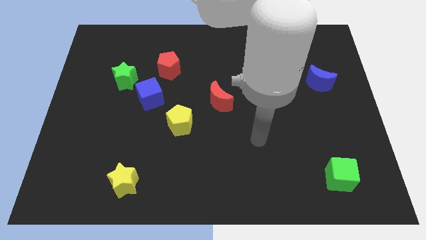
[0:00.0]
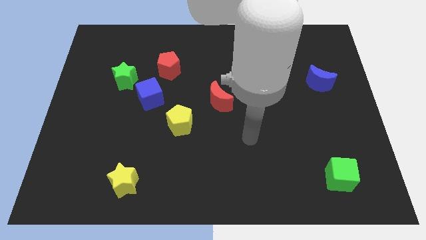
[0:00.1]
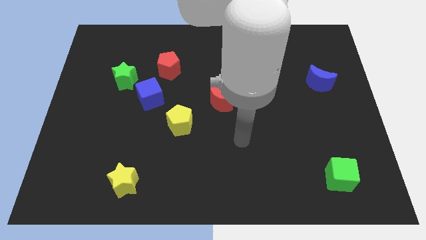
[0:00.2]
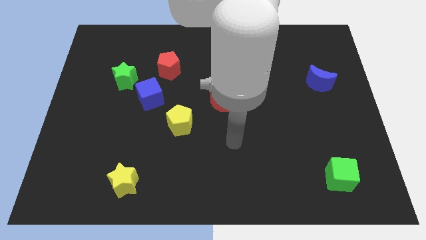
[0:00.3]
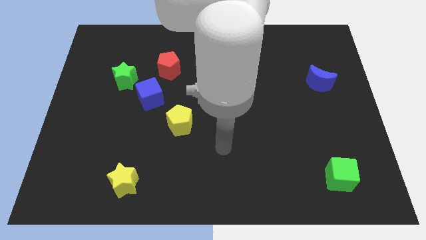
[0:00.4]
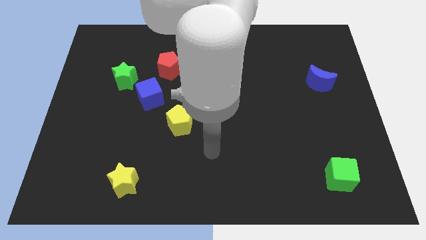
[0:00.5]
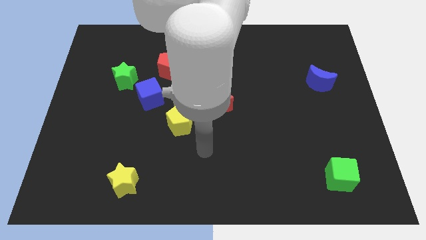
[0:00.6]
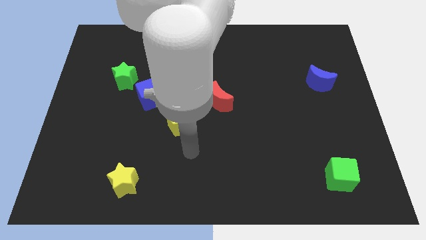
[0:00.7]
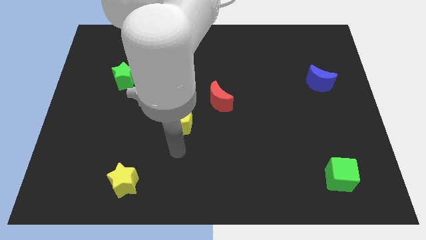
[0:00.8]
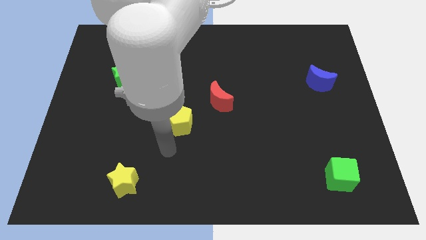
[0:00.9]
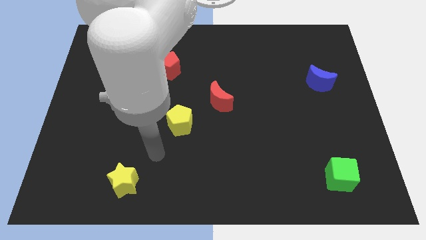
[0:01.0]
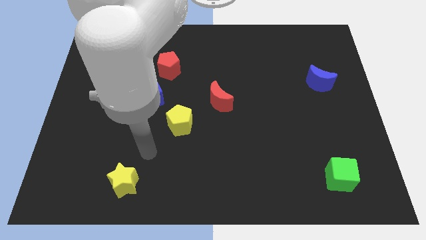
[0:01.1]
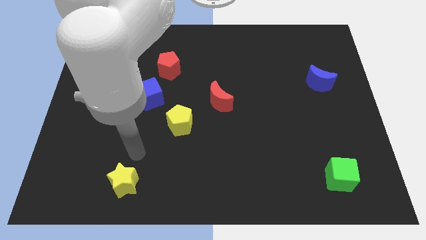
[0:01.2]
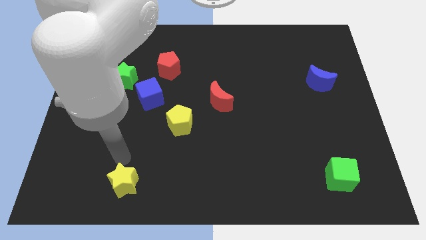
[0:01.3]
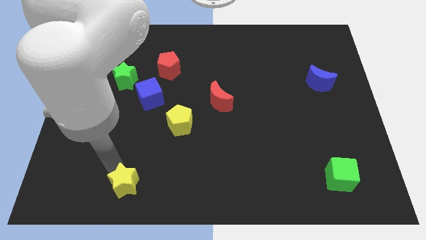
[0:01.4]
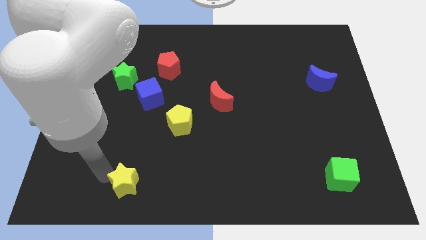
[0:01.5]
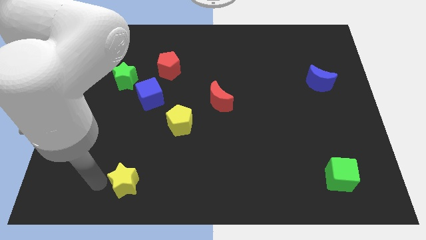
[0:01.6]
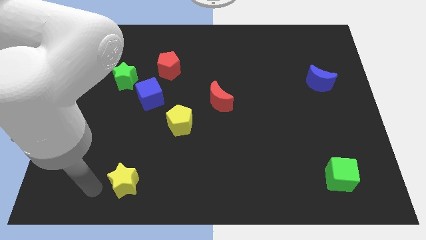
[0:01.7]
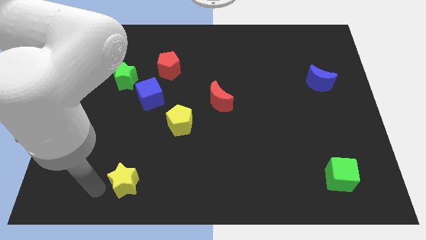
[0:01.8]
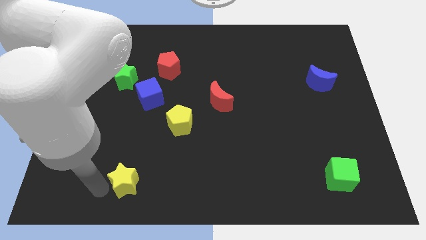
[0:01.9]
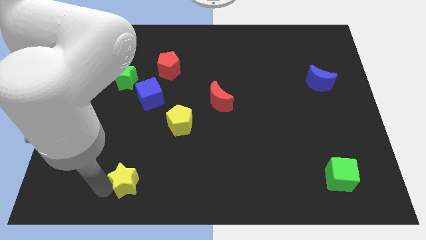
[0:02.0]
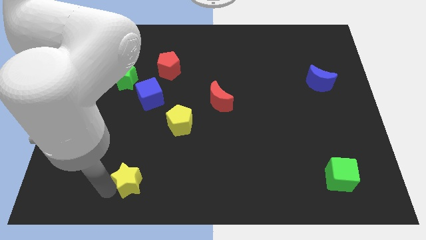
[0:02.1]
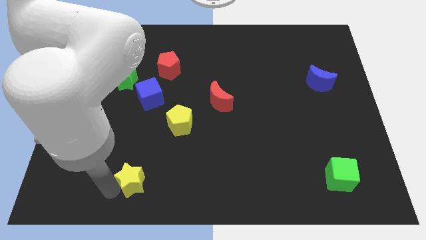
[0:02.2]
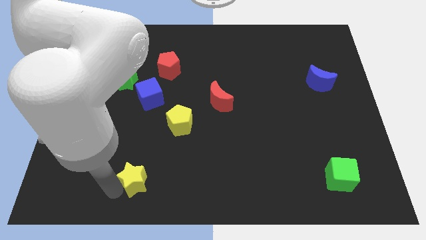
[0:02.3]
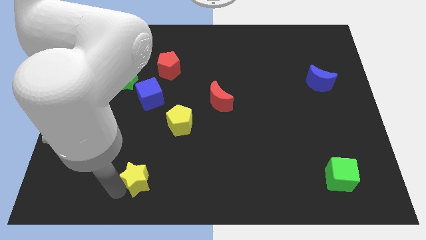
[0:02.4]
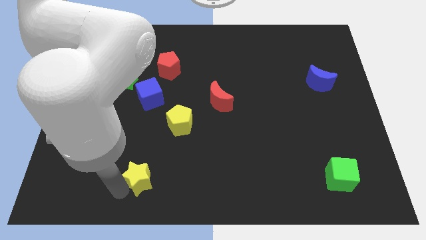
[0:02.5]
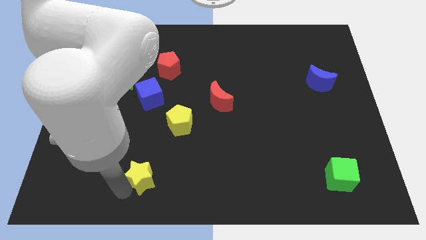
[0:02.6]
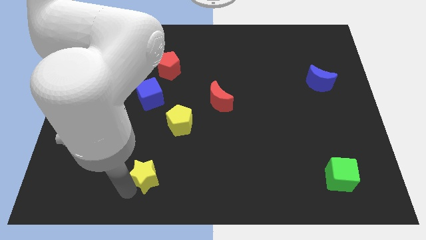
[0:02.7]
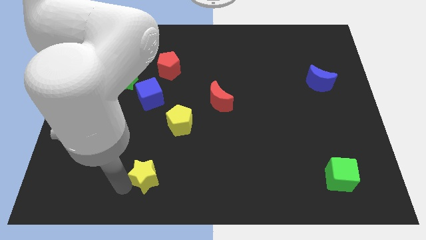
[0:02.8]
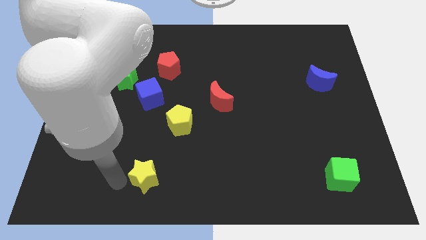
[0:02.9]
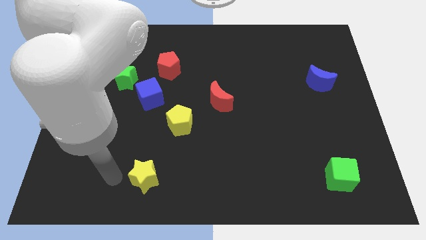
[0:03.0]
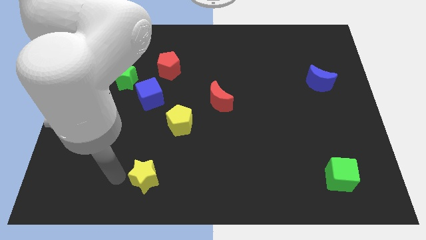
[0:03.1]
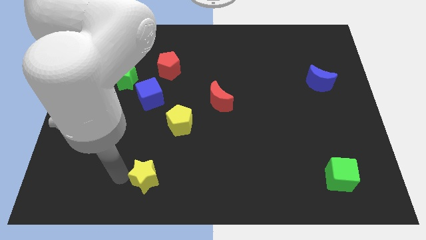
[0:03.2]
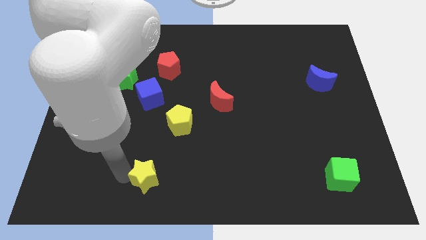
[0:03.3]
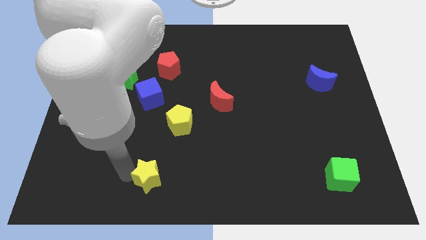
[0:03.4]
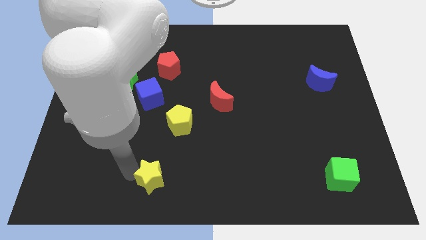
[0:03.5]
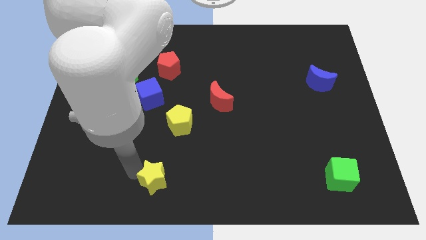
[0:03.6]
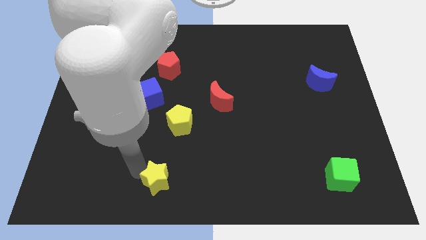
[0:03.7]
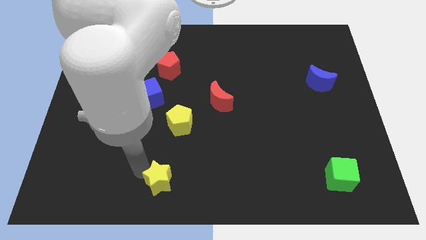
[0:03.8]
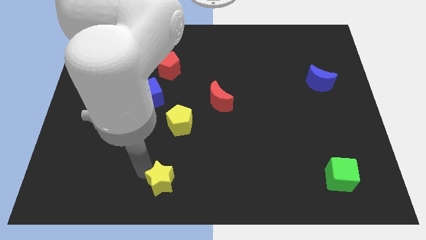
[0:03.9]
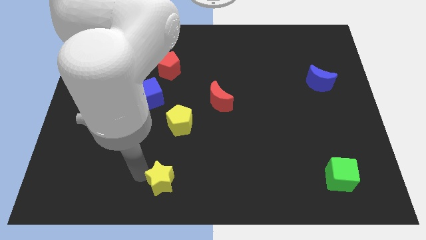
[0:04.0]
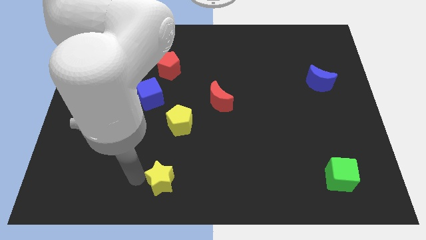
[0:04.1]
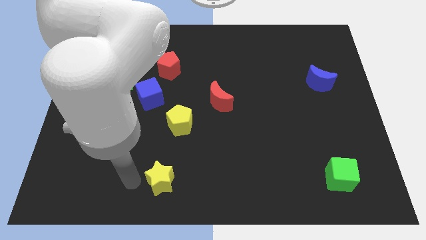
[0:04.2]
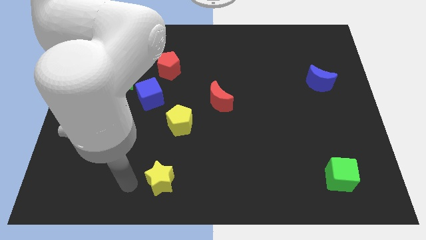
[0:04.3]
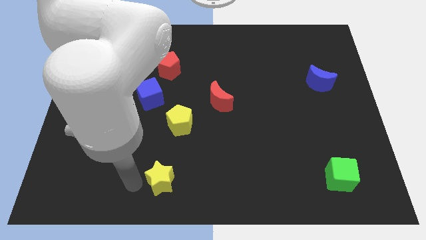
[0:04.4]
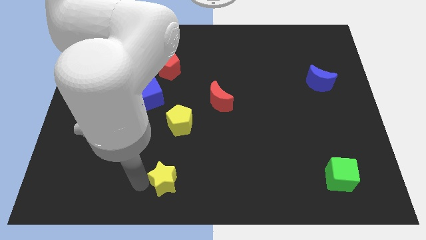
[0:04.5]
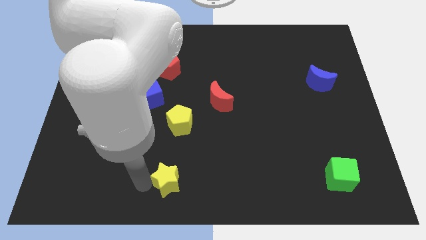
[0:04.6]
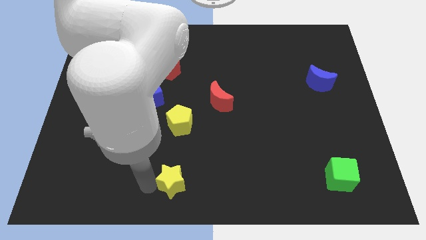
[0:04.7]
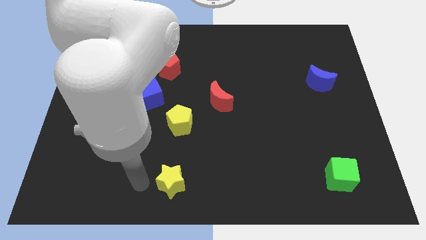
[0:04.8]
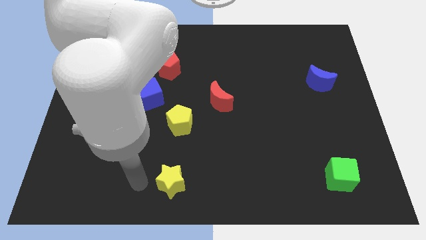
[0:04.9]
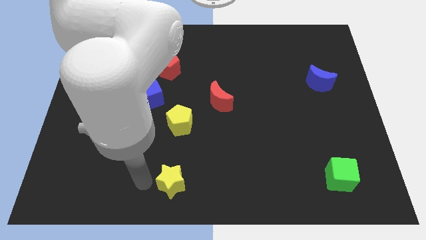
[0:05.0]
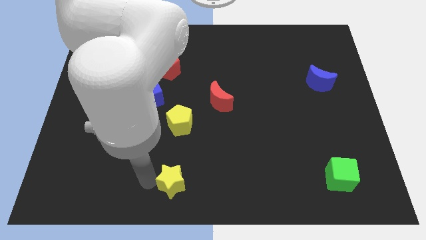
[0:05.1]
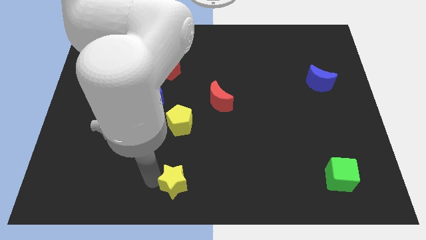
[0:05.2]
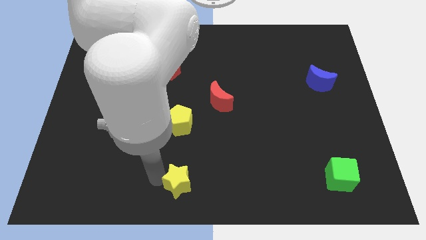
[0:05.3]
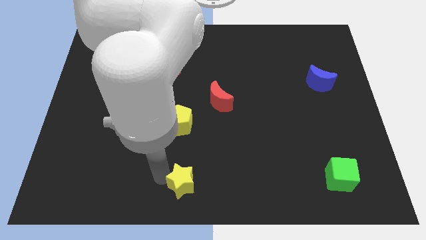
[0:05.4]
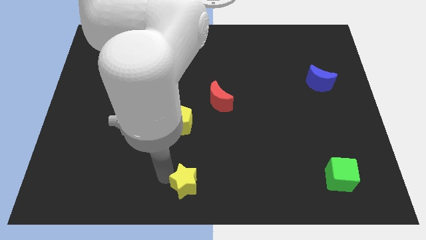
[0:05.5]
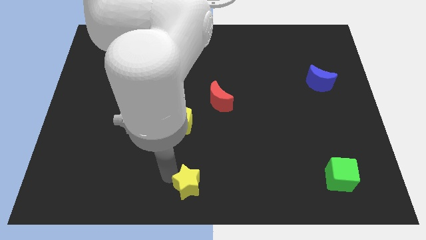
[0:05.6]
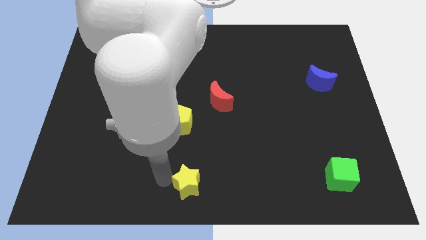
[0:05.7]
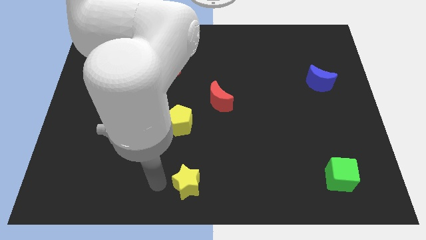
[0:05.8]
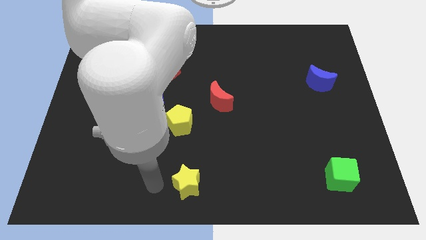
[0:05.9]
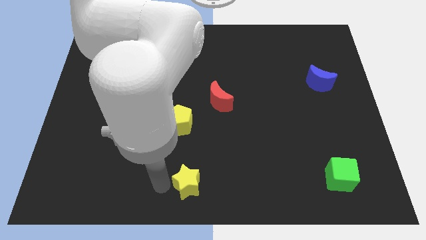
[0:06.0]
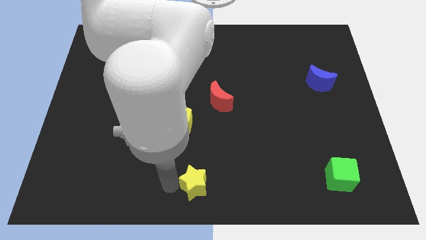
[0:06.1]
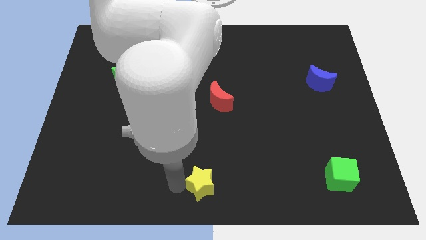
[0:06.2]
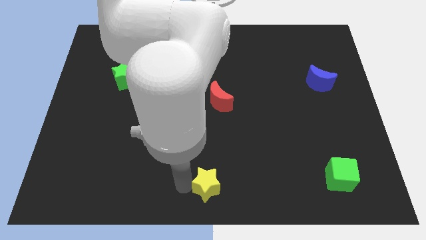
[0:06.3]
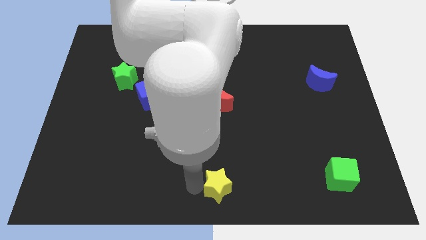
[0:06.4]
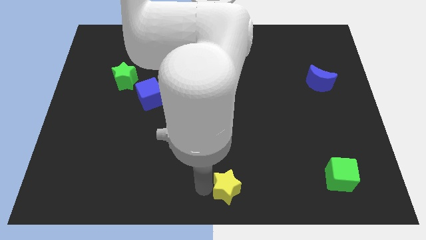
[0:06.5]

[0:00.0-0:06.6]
move the yellow star right

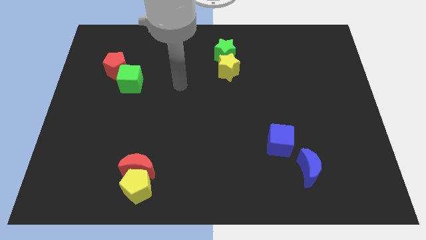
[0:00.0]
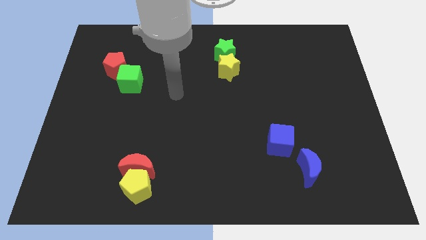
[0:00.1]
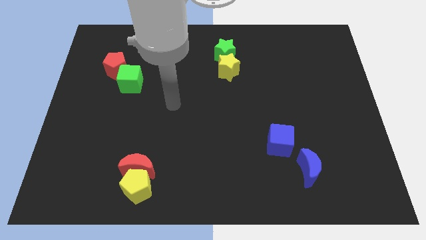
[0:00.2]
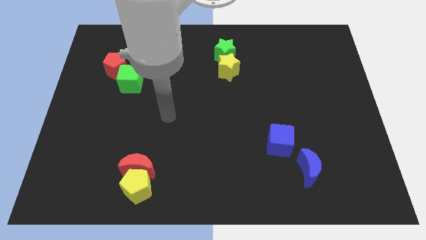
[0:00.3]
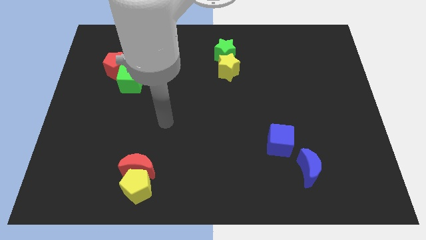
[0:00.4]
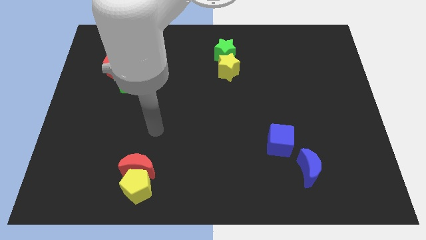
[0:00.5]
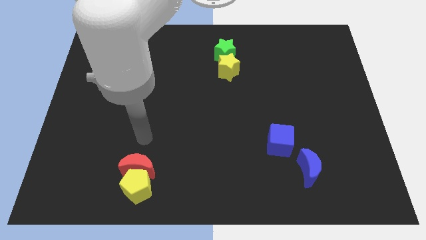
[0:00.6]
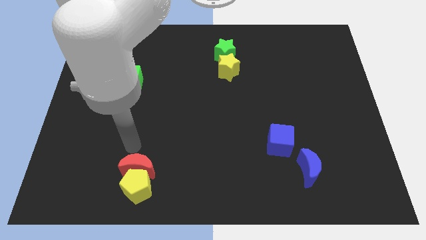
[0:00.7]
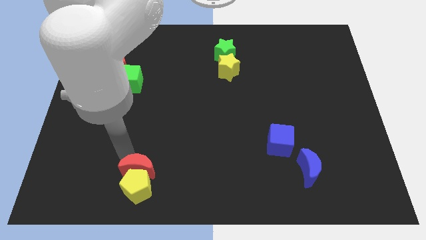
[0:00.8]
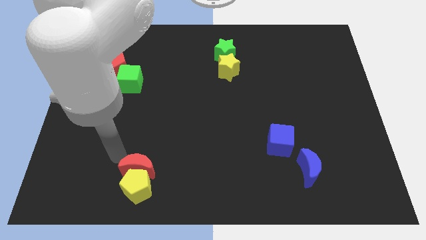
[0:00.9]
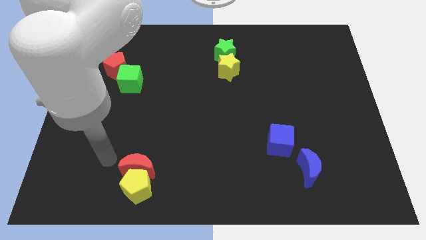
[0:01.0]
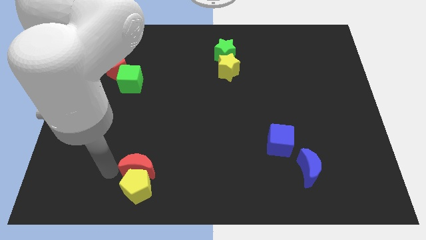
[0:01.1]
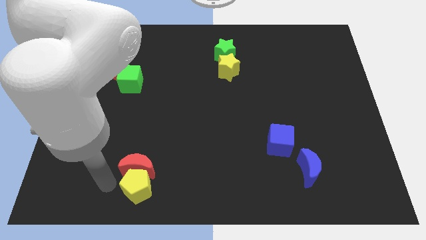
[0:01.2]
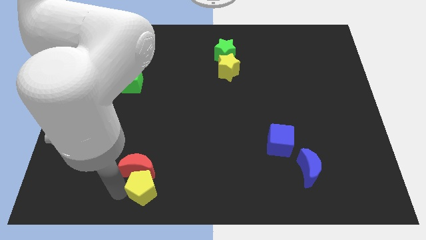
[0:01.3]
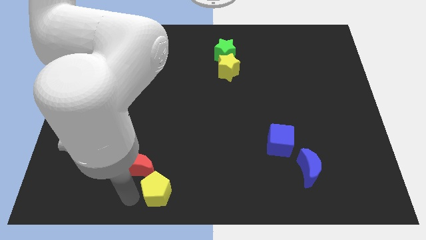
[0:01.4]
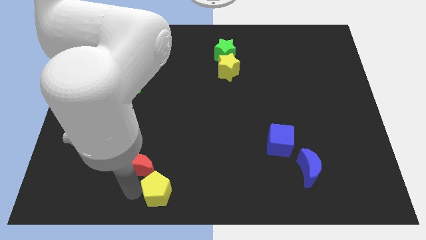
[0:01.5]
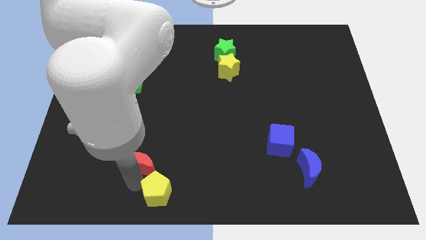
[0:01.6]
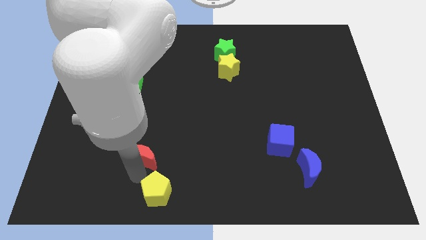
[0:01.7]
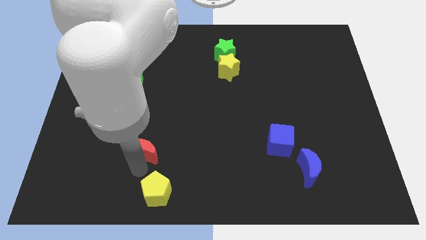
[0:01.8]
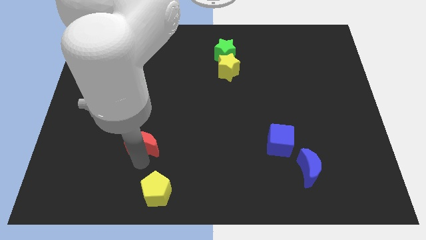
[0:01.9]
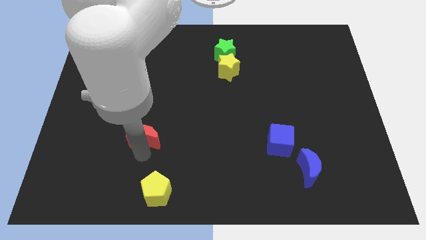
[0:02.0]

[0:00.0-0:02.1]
slightly slide the red moon up
